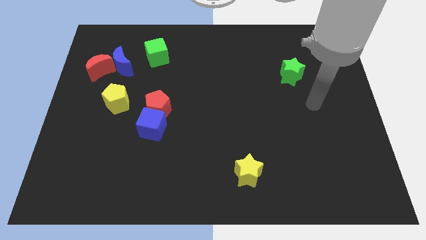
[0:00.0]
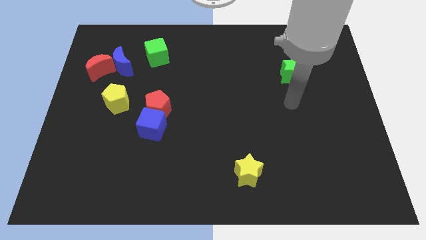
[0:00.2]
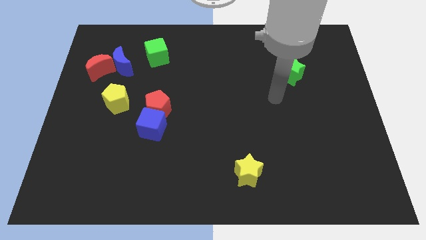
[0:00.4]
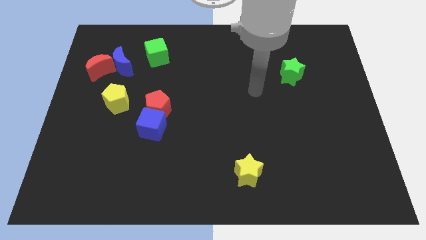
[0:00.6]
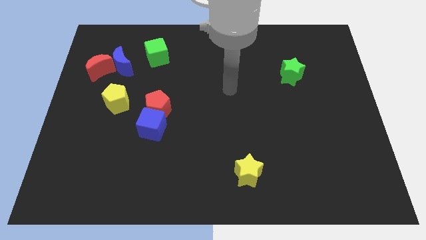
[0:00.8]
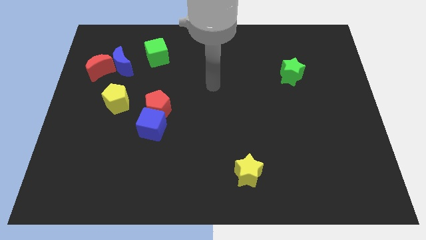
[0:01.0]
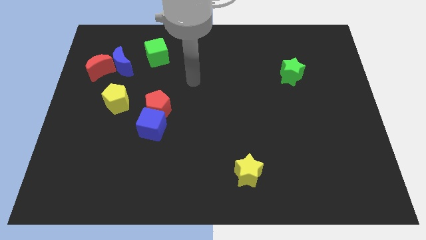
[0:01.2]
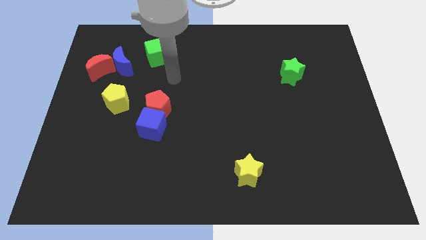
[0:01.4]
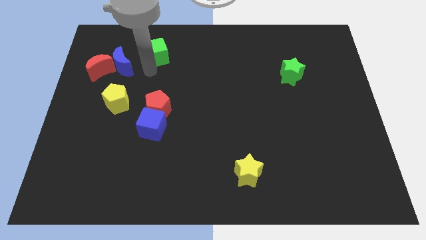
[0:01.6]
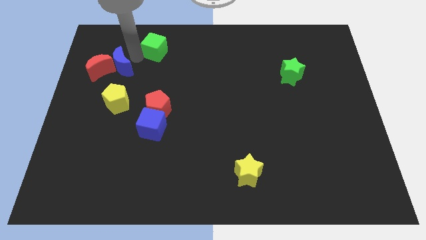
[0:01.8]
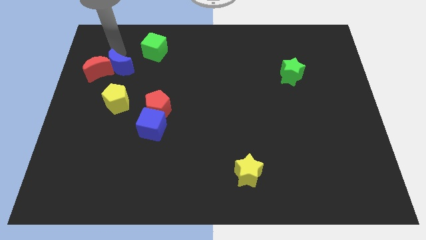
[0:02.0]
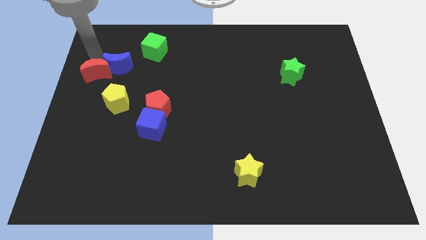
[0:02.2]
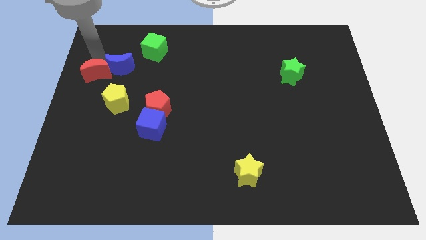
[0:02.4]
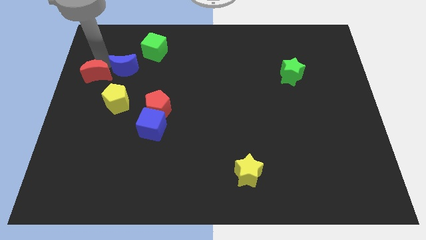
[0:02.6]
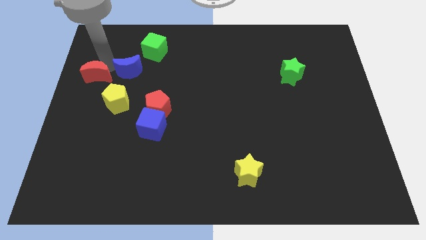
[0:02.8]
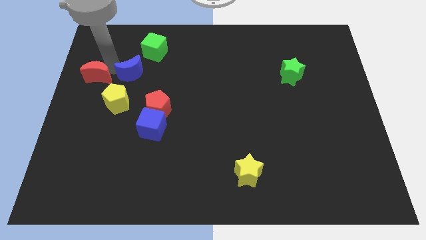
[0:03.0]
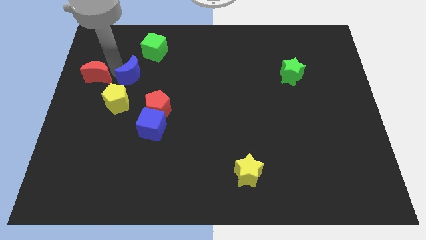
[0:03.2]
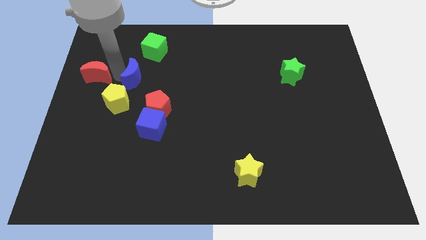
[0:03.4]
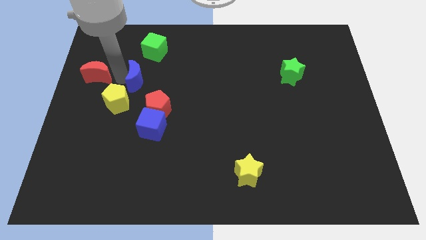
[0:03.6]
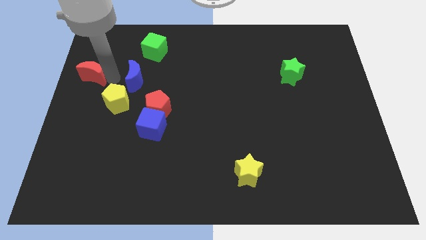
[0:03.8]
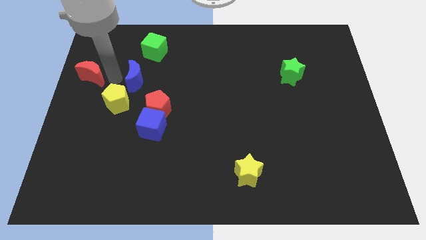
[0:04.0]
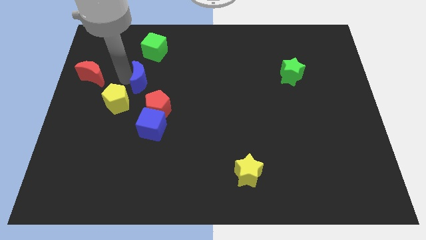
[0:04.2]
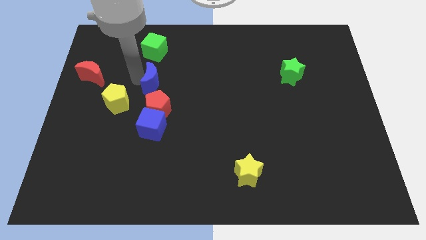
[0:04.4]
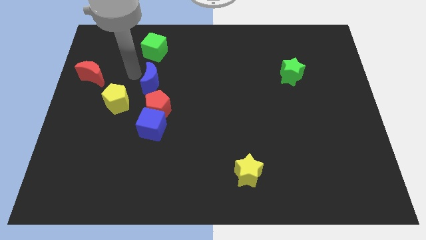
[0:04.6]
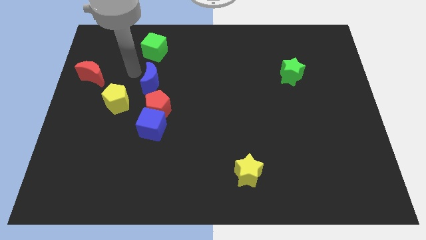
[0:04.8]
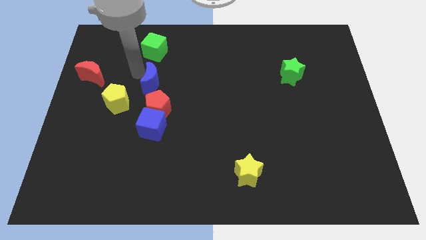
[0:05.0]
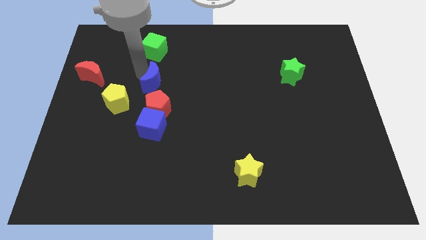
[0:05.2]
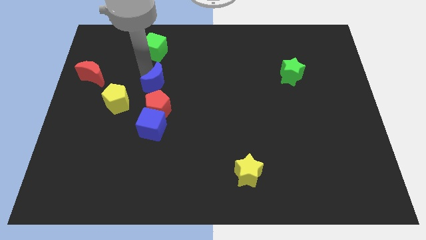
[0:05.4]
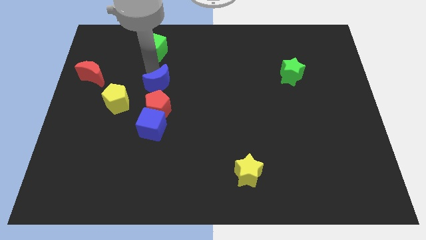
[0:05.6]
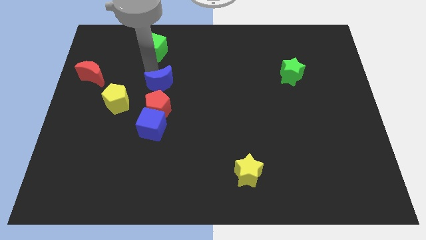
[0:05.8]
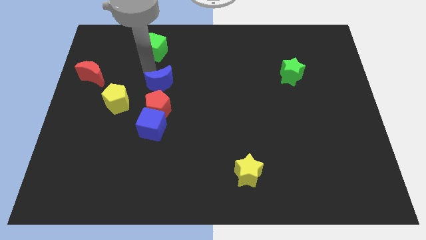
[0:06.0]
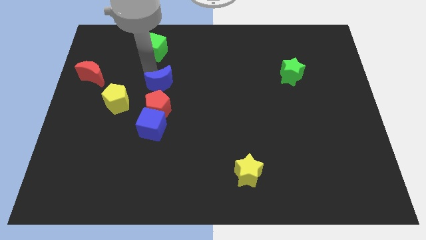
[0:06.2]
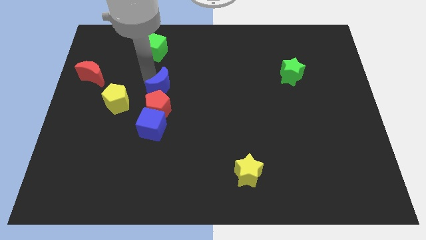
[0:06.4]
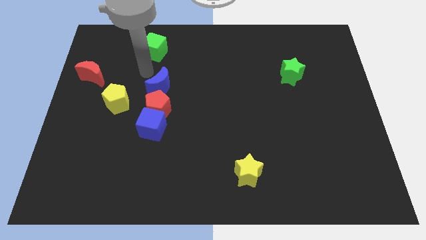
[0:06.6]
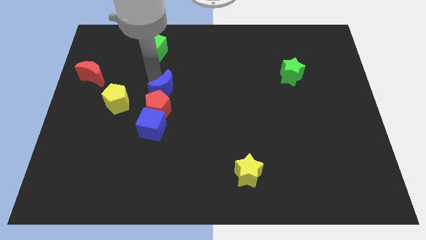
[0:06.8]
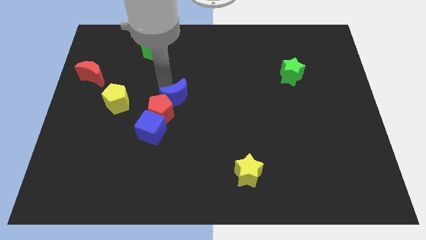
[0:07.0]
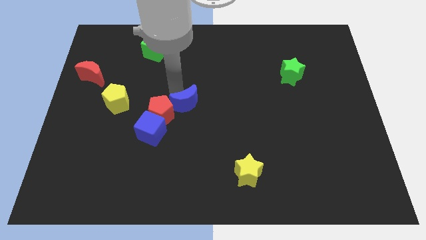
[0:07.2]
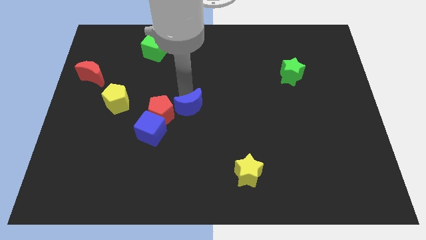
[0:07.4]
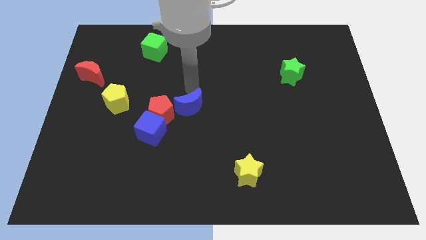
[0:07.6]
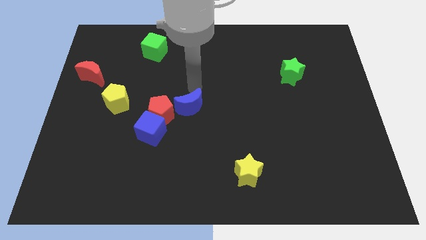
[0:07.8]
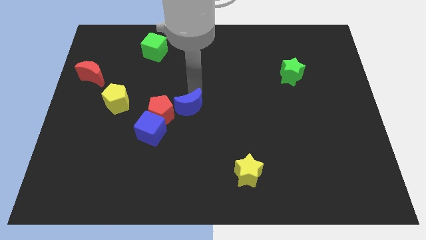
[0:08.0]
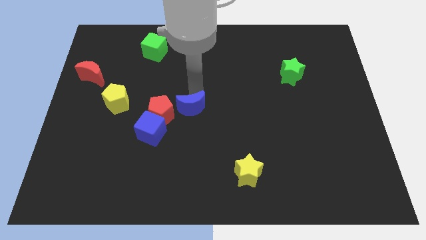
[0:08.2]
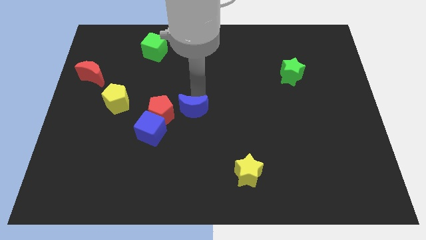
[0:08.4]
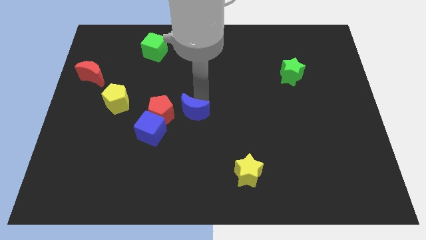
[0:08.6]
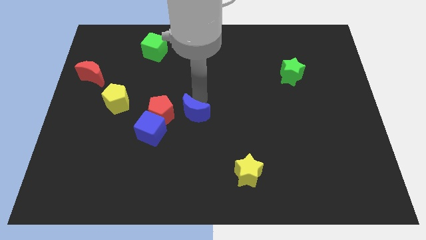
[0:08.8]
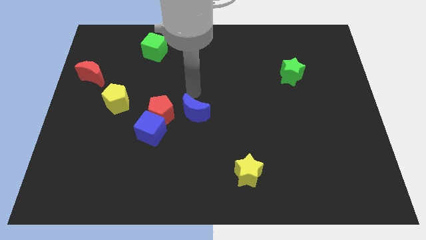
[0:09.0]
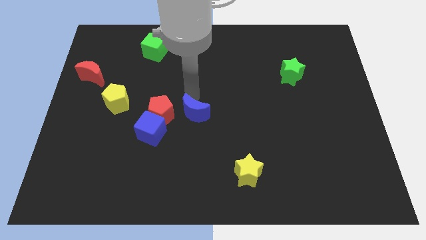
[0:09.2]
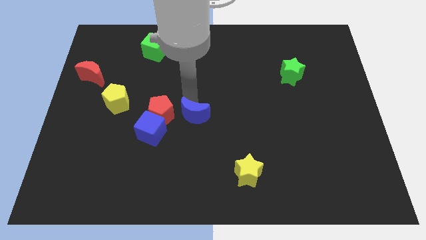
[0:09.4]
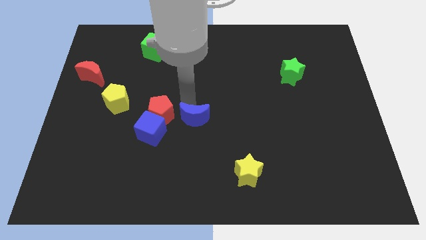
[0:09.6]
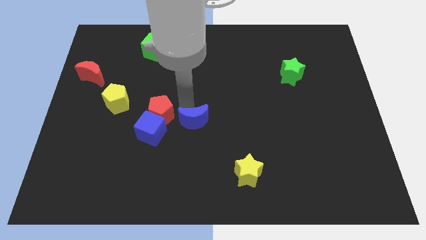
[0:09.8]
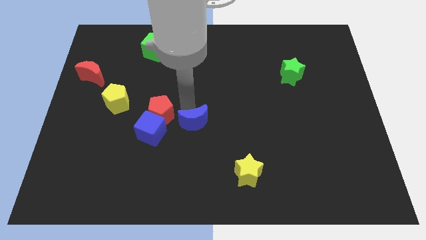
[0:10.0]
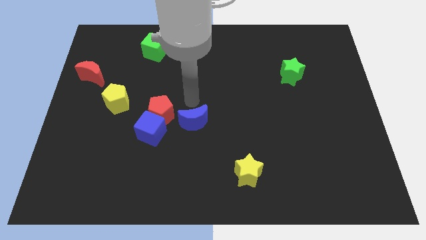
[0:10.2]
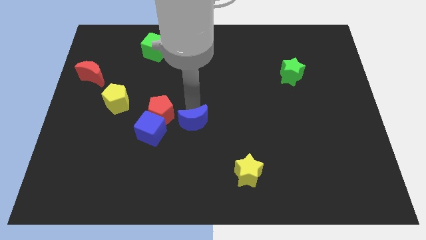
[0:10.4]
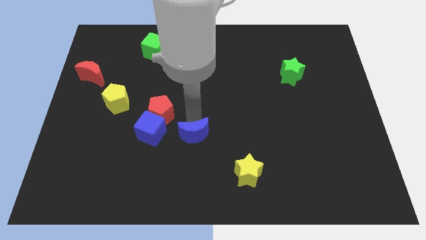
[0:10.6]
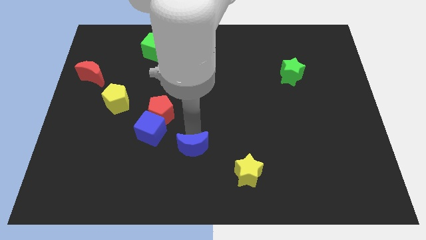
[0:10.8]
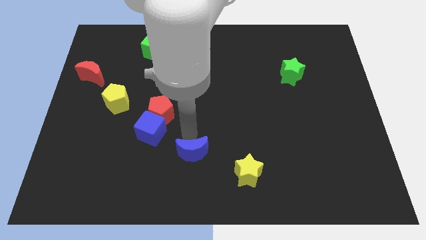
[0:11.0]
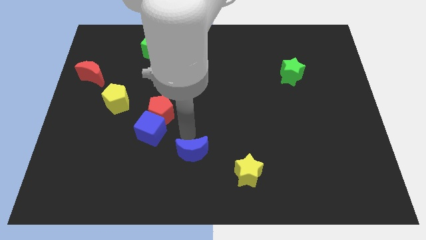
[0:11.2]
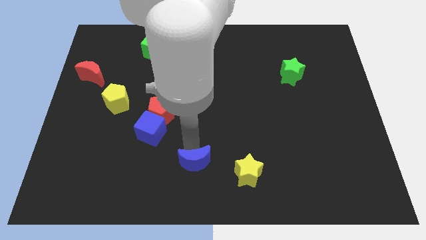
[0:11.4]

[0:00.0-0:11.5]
push the blue moon to the bottom

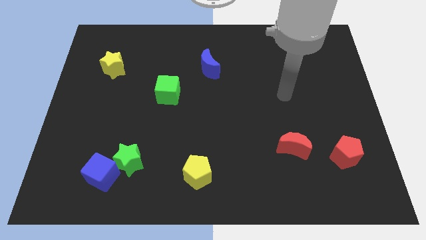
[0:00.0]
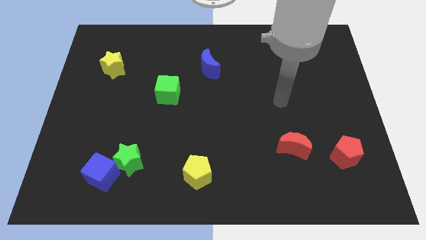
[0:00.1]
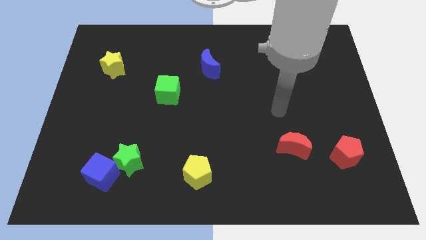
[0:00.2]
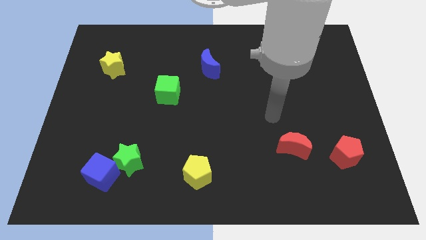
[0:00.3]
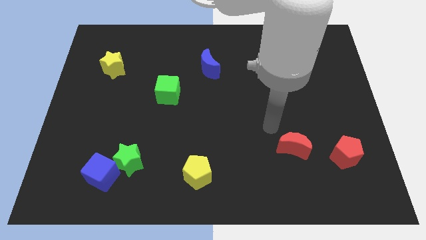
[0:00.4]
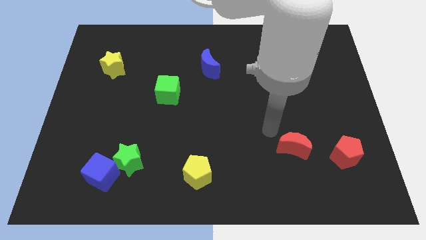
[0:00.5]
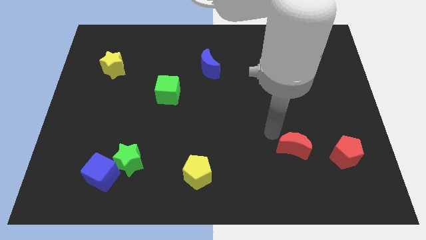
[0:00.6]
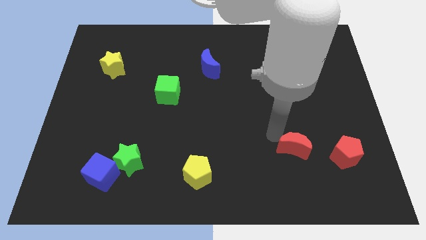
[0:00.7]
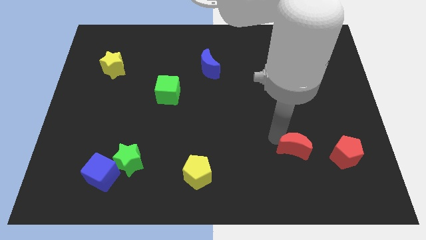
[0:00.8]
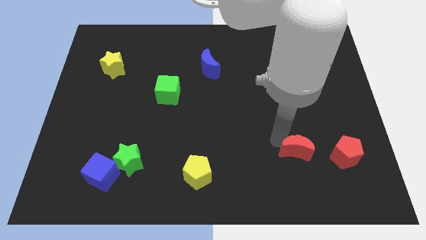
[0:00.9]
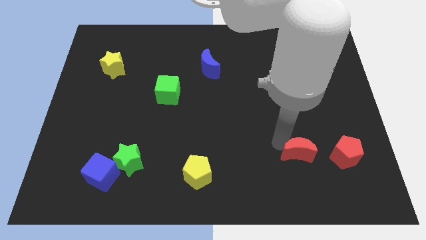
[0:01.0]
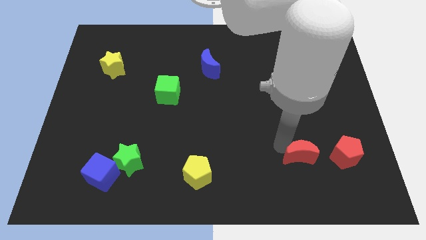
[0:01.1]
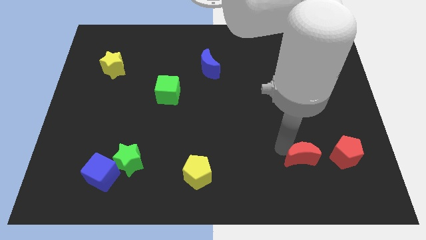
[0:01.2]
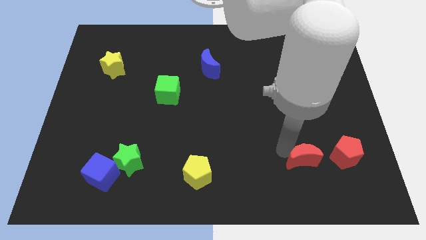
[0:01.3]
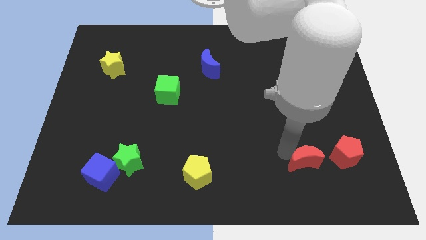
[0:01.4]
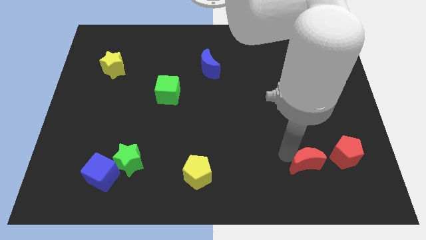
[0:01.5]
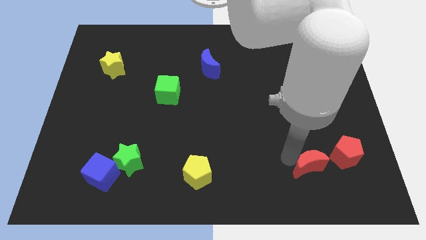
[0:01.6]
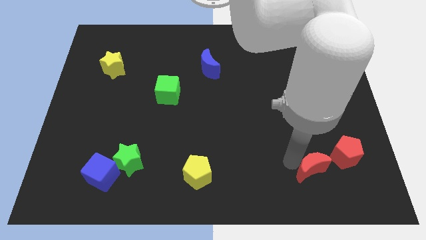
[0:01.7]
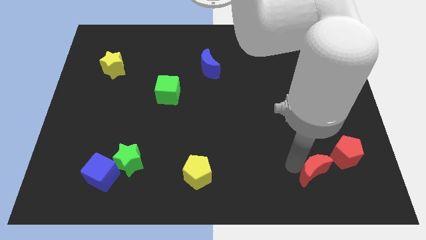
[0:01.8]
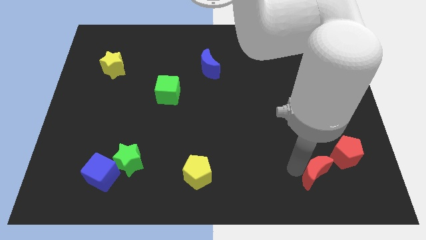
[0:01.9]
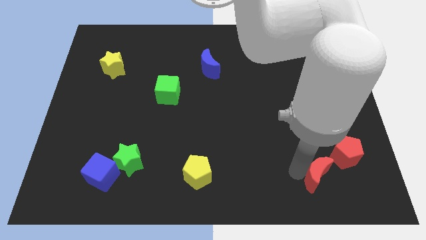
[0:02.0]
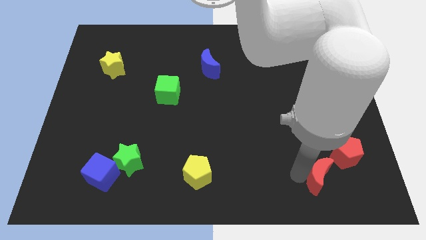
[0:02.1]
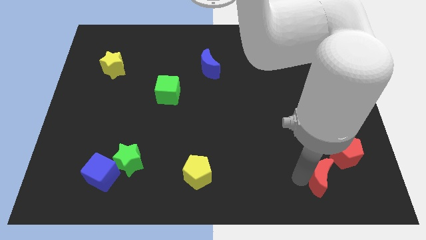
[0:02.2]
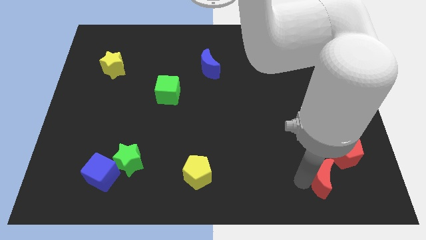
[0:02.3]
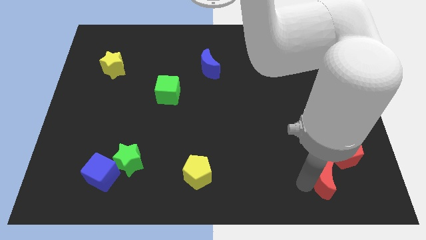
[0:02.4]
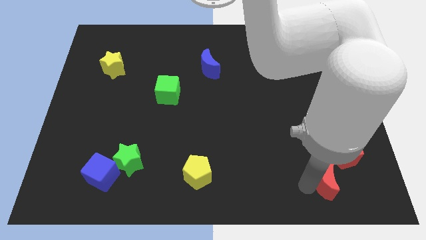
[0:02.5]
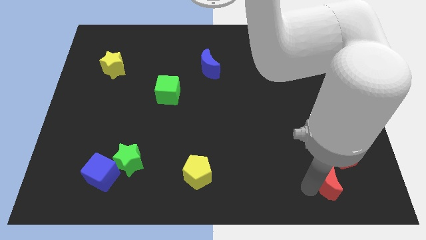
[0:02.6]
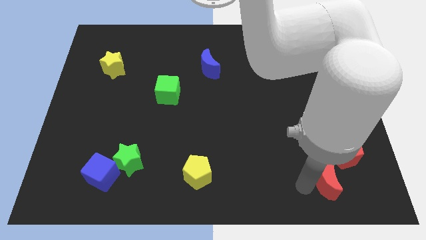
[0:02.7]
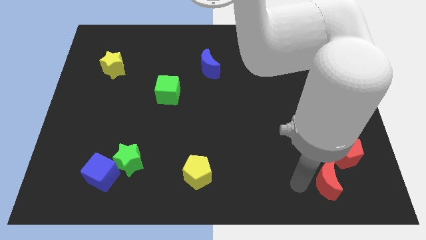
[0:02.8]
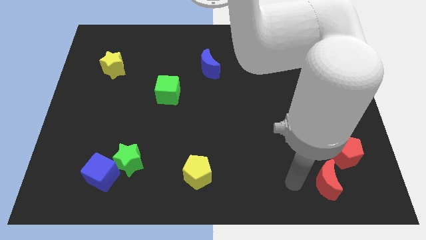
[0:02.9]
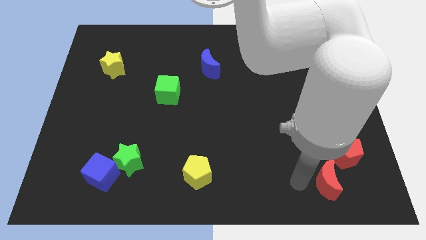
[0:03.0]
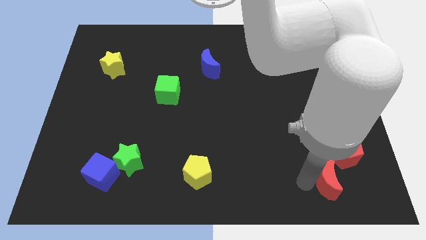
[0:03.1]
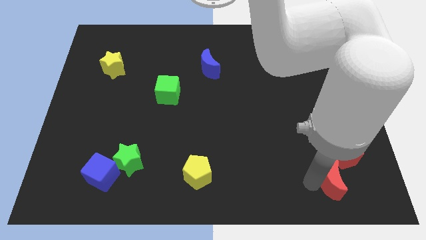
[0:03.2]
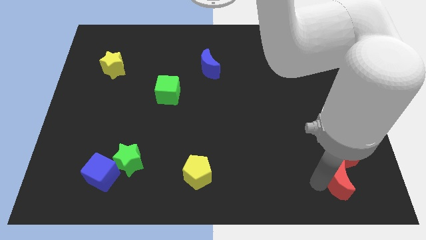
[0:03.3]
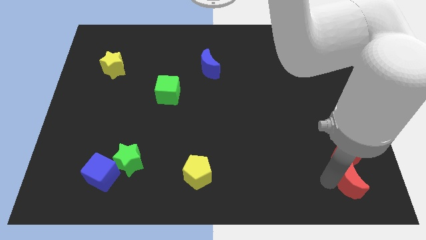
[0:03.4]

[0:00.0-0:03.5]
move the red moon to the bottom right of the board
